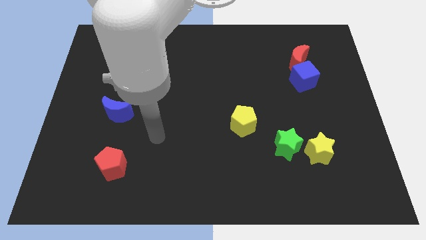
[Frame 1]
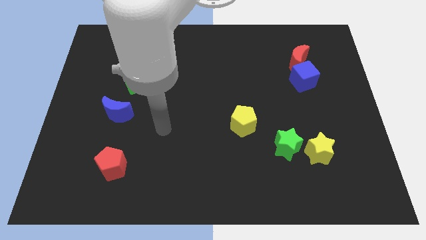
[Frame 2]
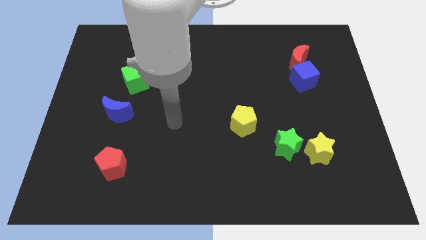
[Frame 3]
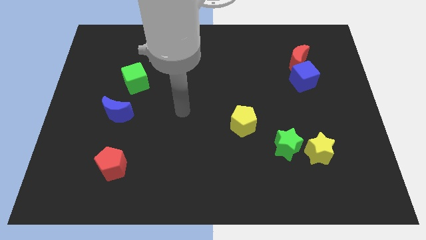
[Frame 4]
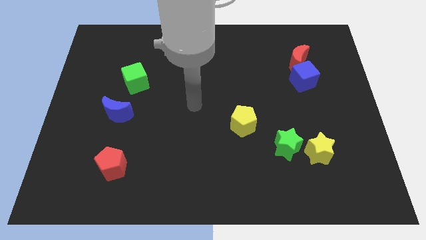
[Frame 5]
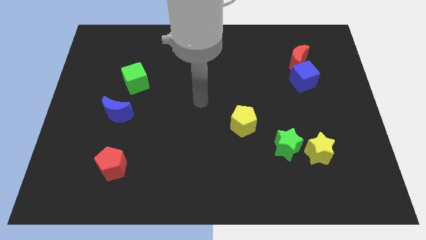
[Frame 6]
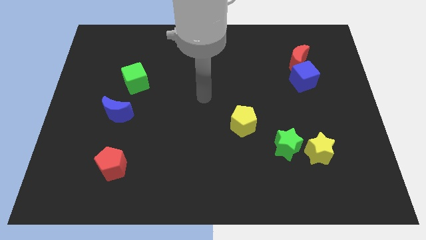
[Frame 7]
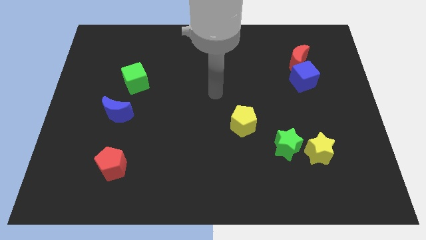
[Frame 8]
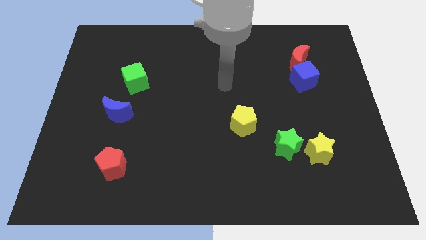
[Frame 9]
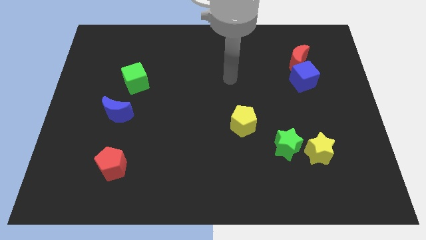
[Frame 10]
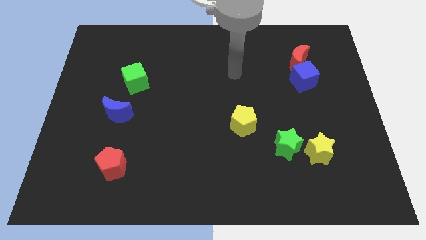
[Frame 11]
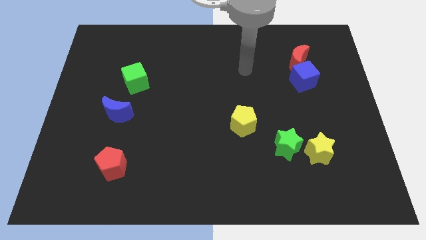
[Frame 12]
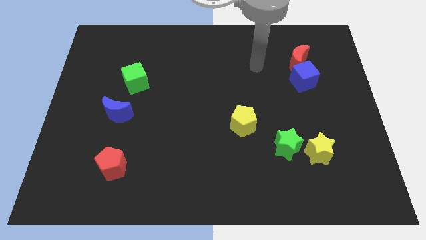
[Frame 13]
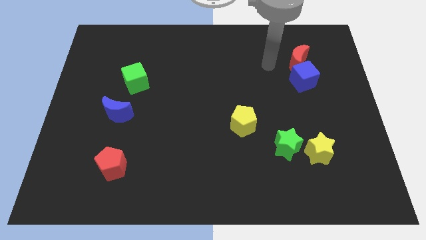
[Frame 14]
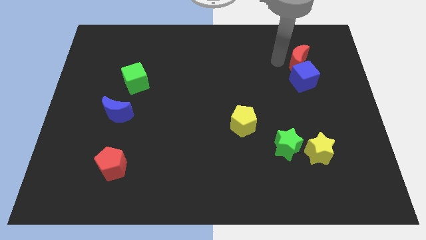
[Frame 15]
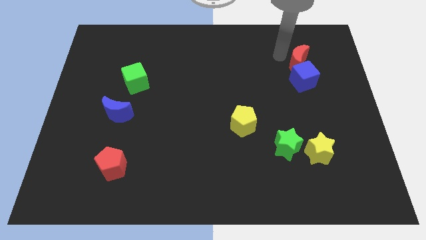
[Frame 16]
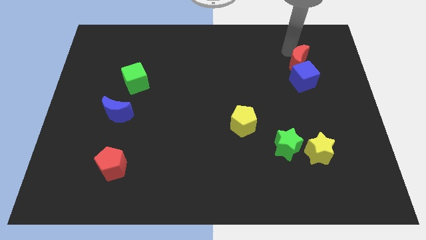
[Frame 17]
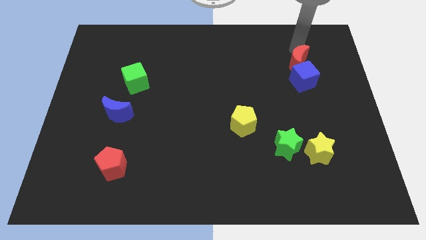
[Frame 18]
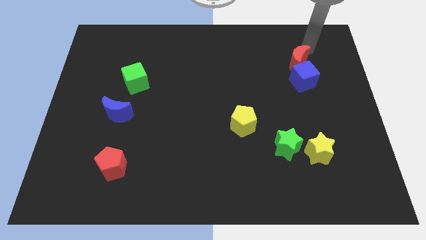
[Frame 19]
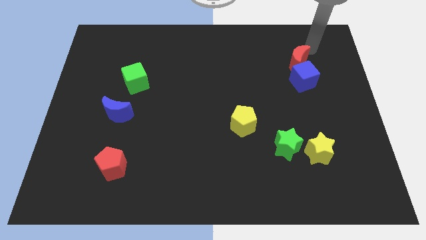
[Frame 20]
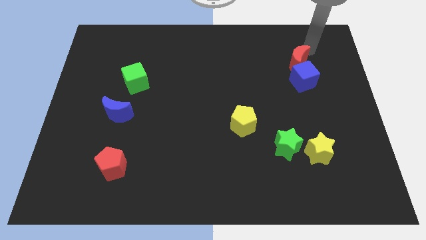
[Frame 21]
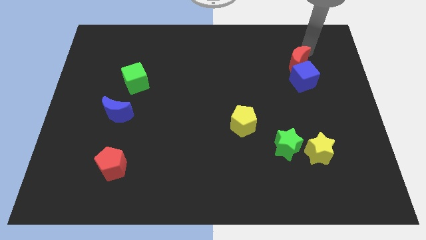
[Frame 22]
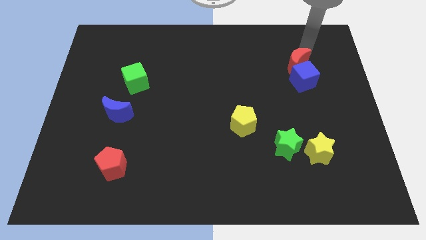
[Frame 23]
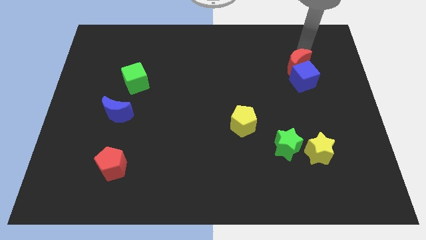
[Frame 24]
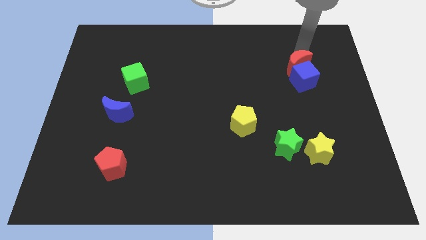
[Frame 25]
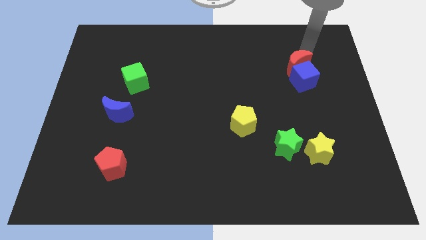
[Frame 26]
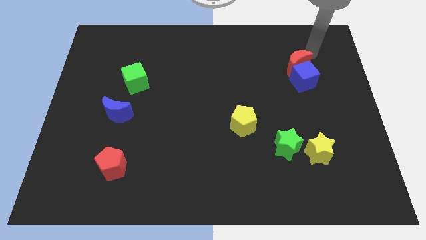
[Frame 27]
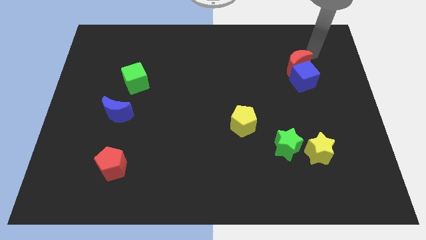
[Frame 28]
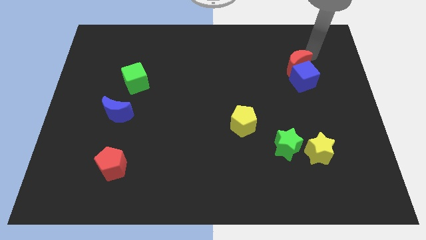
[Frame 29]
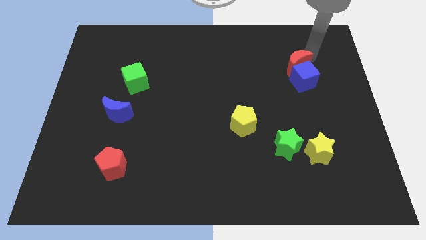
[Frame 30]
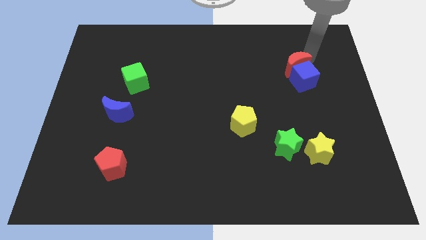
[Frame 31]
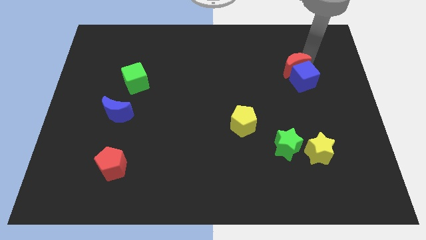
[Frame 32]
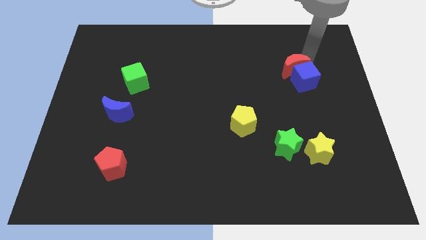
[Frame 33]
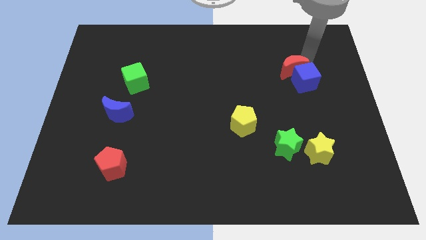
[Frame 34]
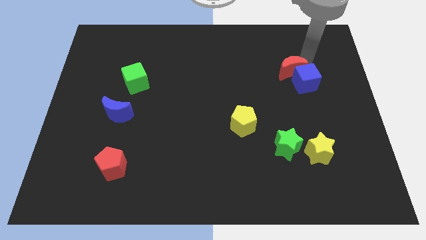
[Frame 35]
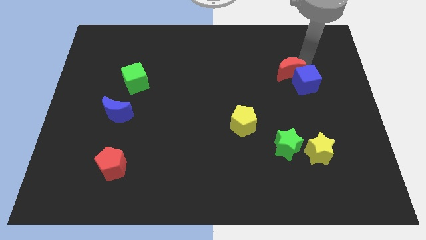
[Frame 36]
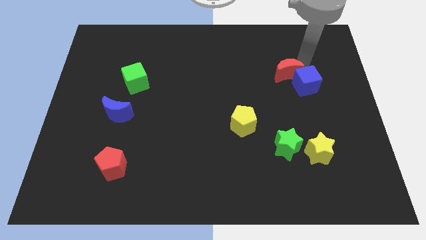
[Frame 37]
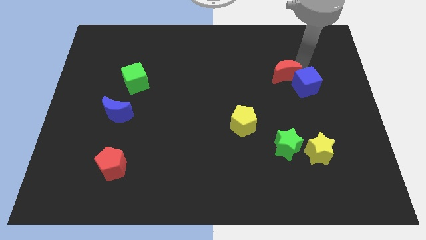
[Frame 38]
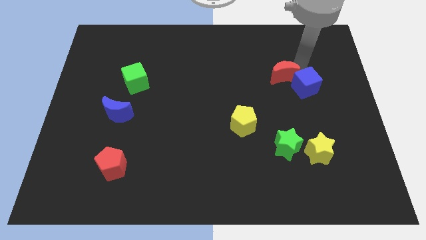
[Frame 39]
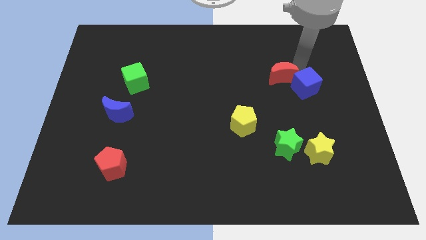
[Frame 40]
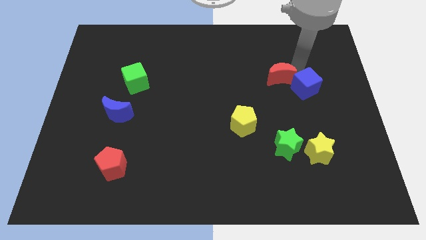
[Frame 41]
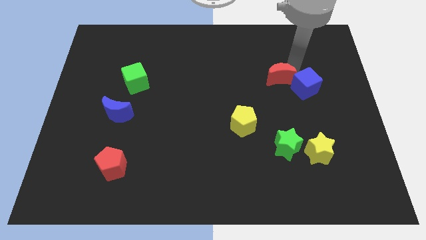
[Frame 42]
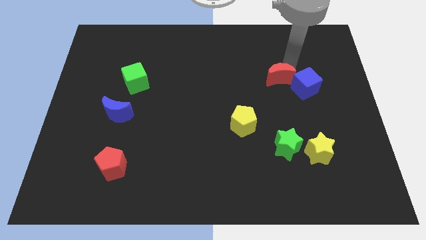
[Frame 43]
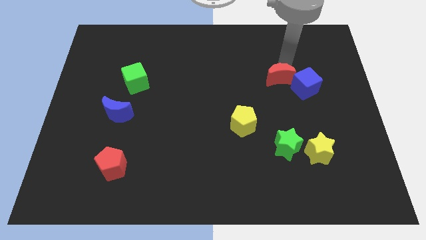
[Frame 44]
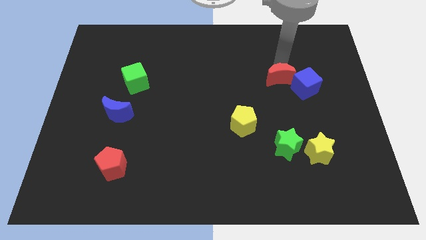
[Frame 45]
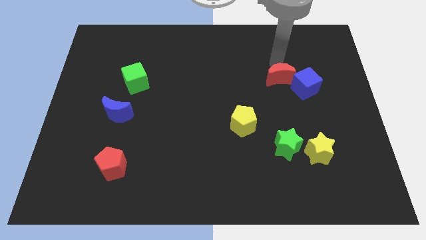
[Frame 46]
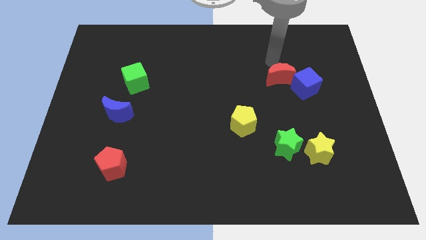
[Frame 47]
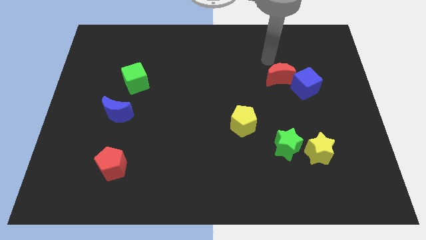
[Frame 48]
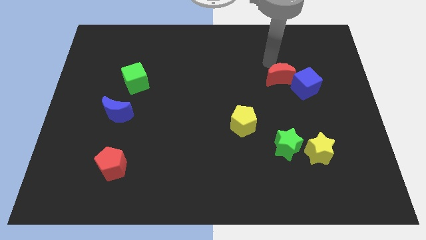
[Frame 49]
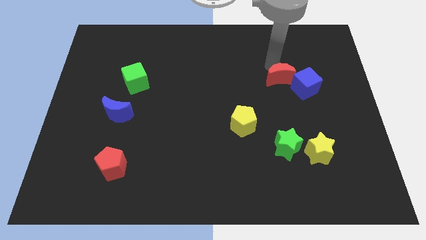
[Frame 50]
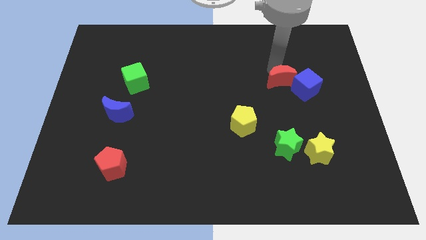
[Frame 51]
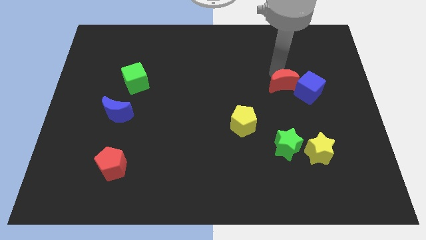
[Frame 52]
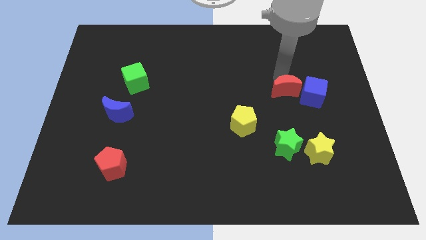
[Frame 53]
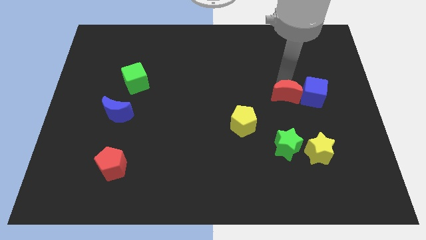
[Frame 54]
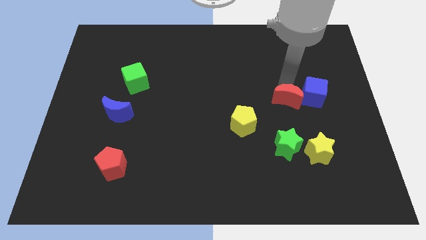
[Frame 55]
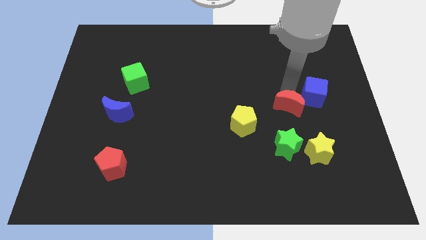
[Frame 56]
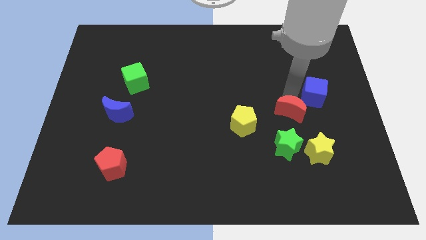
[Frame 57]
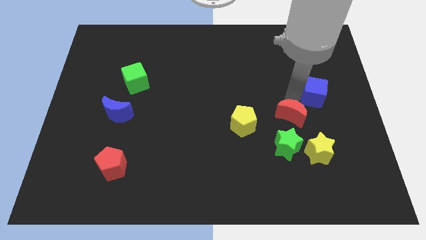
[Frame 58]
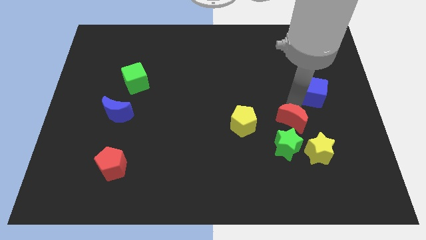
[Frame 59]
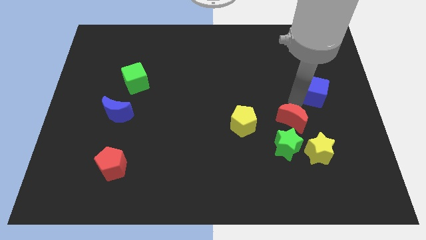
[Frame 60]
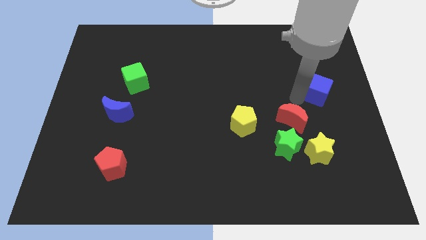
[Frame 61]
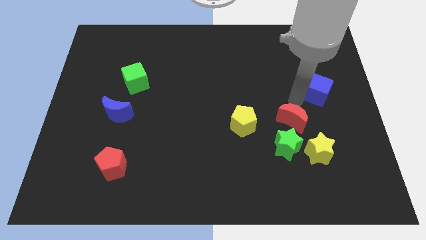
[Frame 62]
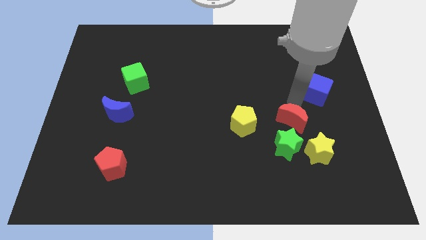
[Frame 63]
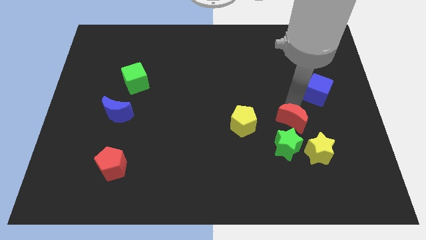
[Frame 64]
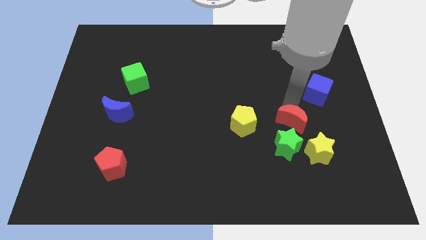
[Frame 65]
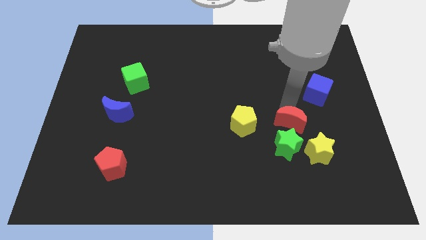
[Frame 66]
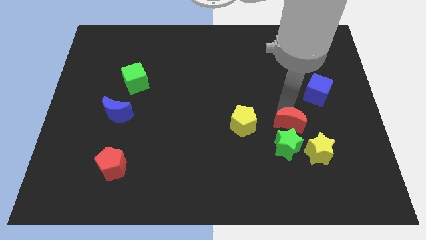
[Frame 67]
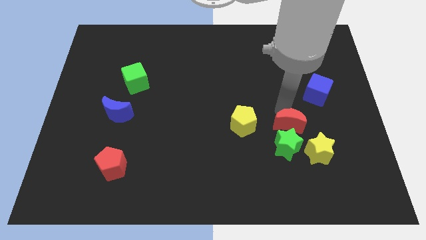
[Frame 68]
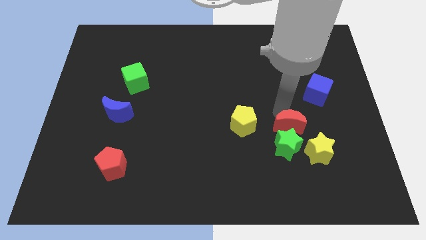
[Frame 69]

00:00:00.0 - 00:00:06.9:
move the red moon close to the green star

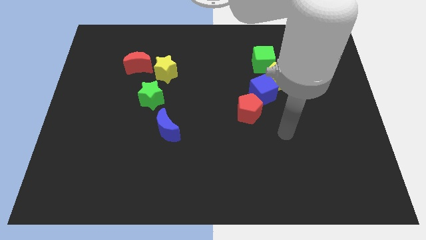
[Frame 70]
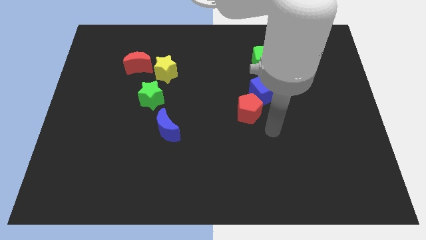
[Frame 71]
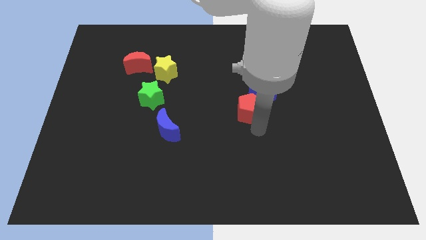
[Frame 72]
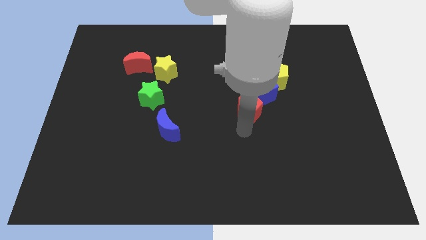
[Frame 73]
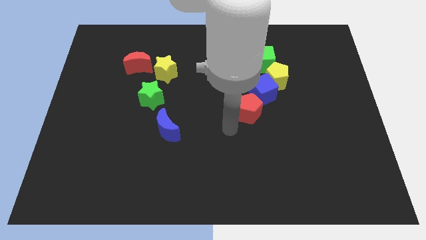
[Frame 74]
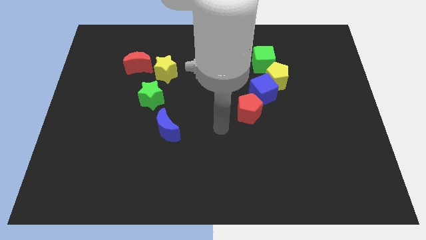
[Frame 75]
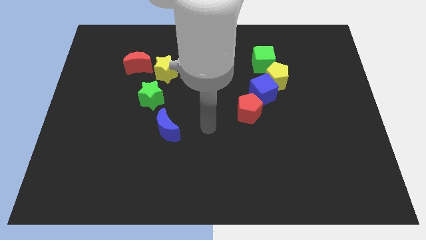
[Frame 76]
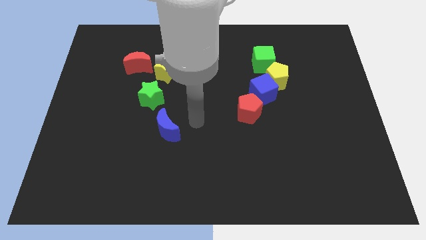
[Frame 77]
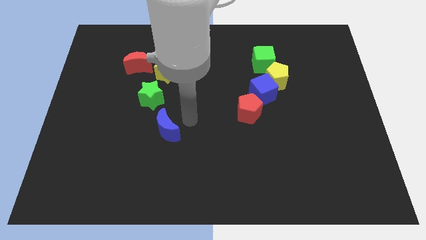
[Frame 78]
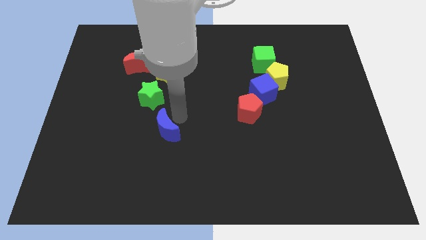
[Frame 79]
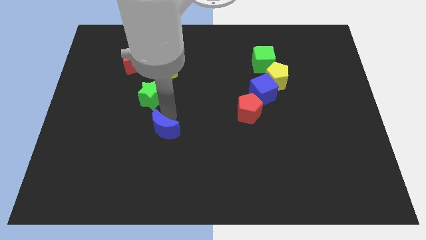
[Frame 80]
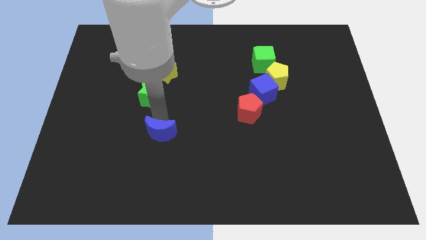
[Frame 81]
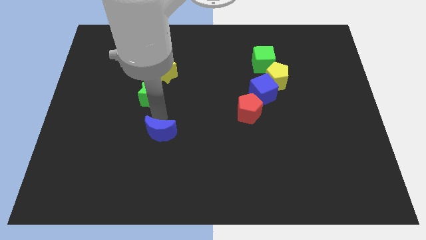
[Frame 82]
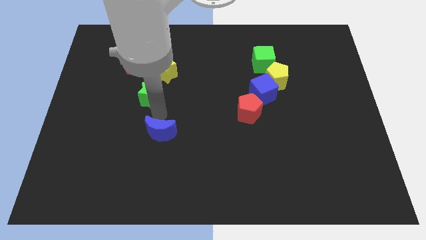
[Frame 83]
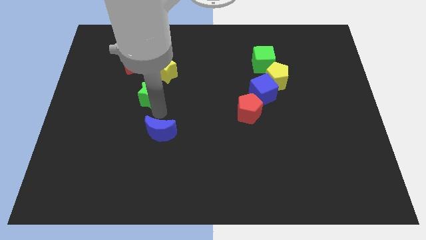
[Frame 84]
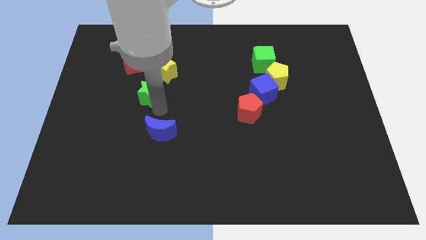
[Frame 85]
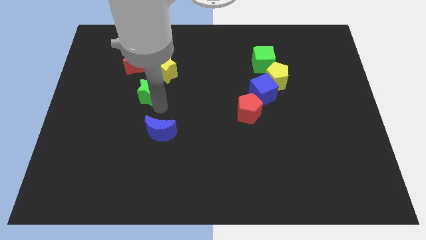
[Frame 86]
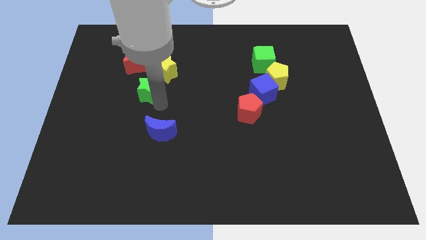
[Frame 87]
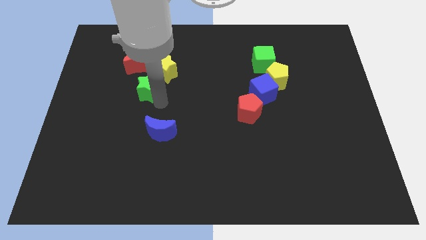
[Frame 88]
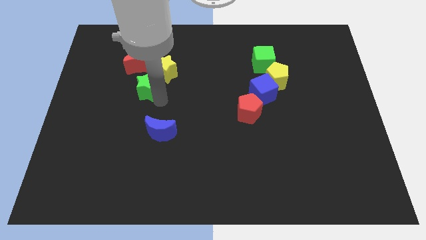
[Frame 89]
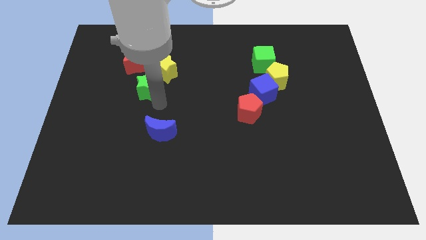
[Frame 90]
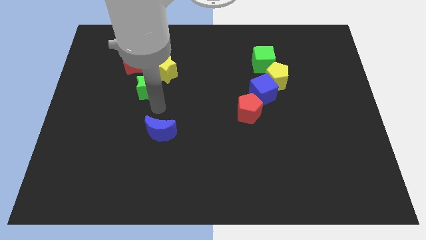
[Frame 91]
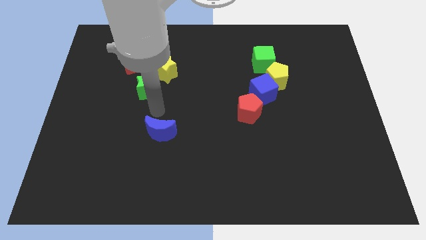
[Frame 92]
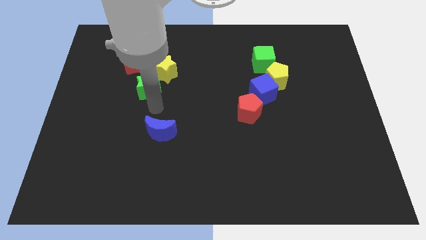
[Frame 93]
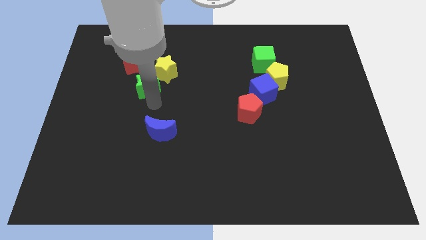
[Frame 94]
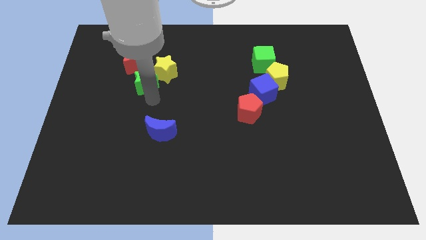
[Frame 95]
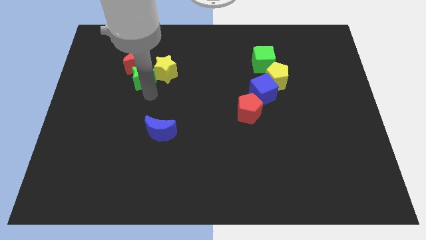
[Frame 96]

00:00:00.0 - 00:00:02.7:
move the green star next to the red moon
